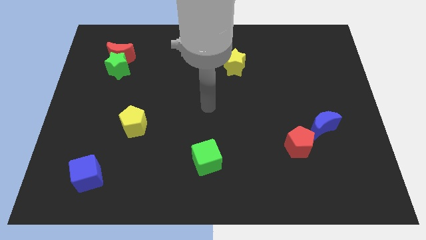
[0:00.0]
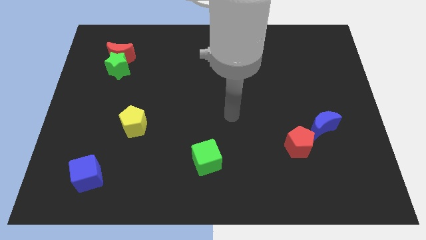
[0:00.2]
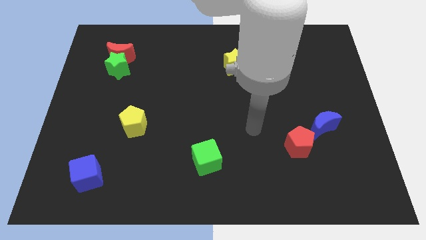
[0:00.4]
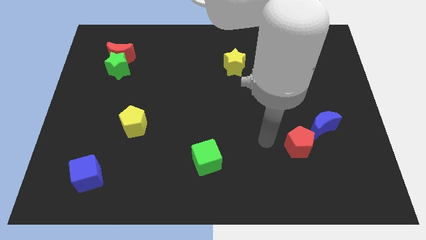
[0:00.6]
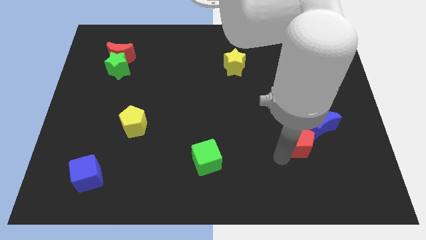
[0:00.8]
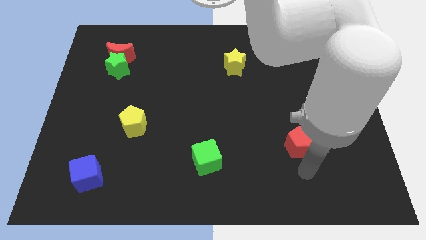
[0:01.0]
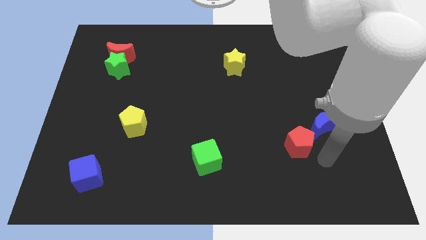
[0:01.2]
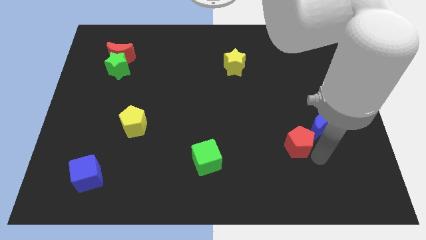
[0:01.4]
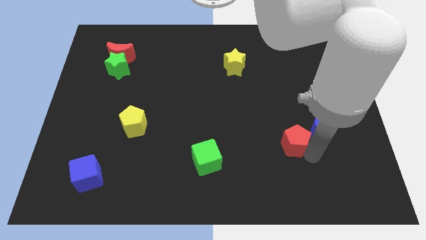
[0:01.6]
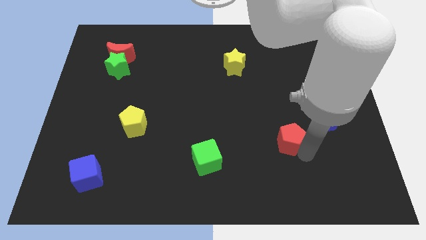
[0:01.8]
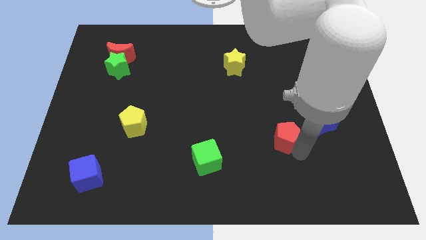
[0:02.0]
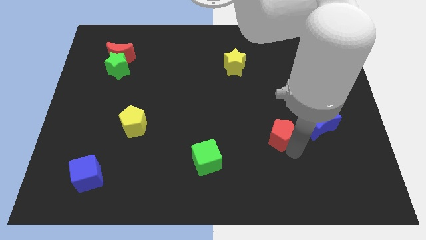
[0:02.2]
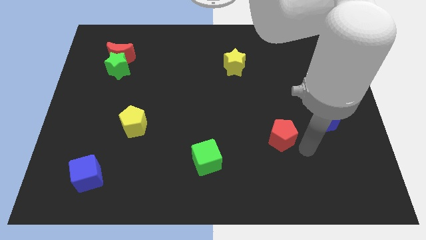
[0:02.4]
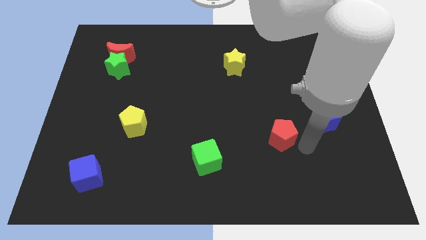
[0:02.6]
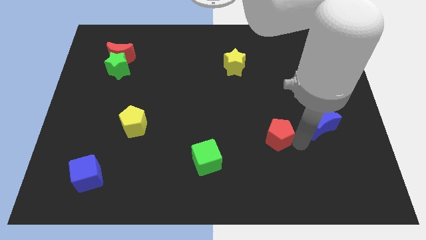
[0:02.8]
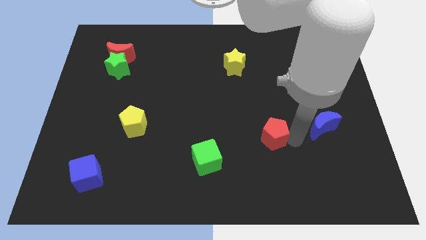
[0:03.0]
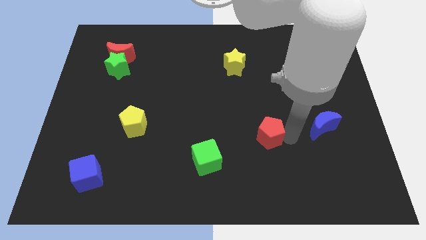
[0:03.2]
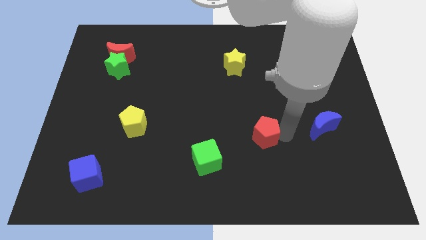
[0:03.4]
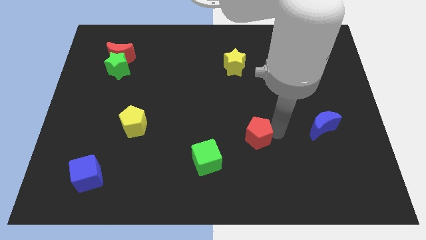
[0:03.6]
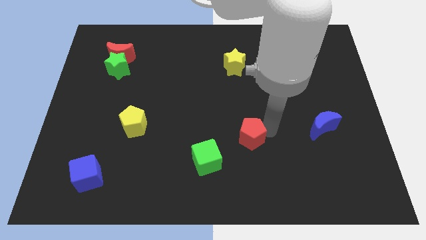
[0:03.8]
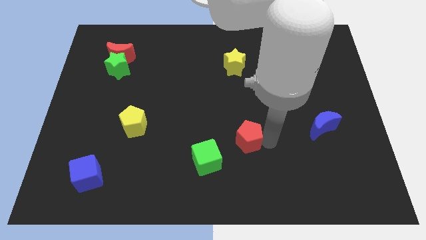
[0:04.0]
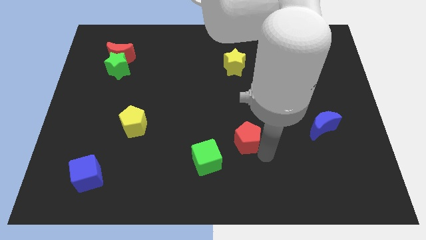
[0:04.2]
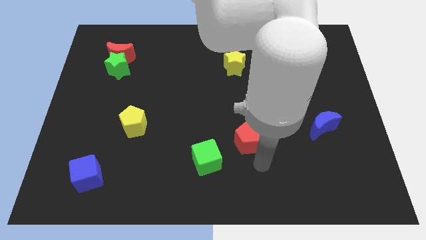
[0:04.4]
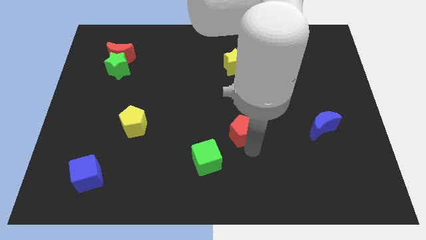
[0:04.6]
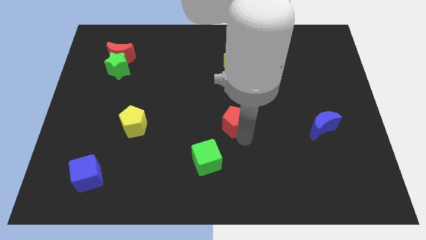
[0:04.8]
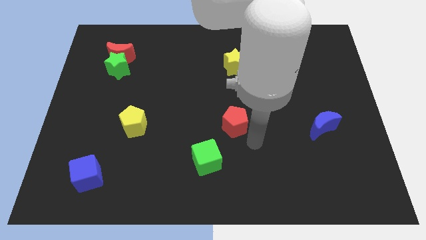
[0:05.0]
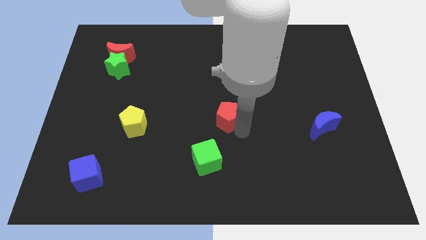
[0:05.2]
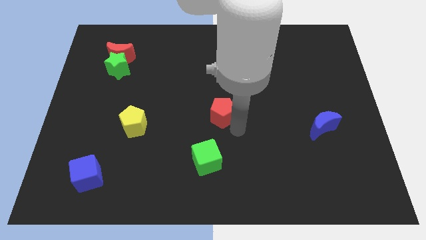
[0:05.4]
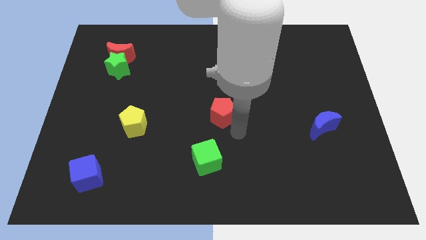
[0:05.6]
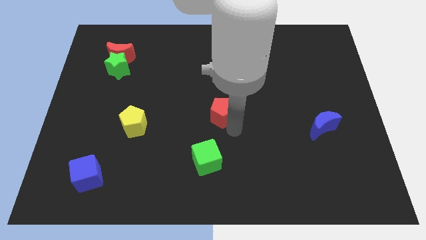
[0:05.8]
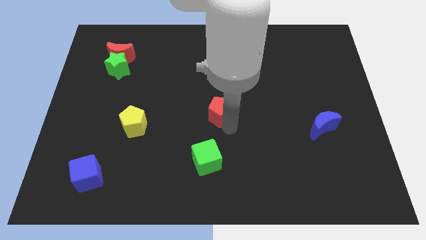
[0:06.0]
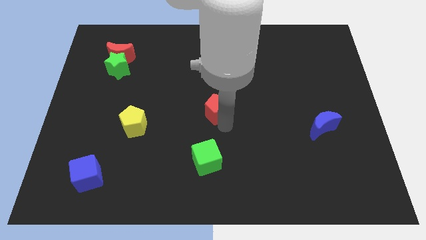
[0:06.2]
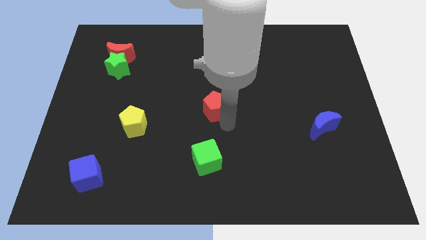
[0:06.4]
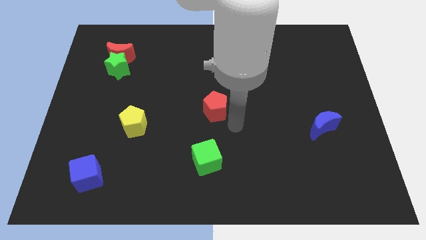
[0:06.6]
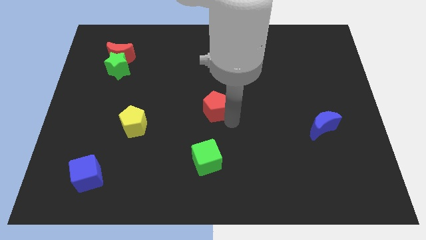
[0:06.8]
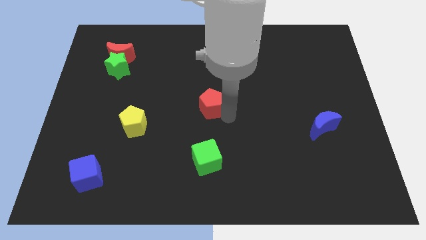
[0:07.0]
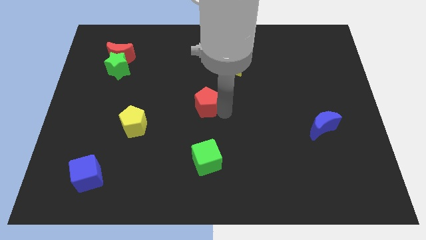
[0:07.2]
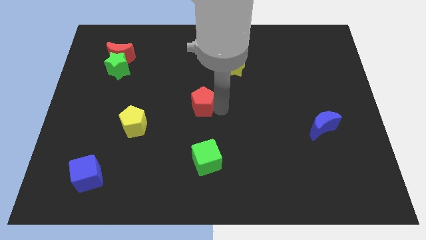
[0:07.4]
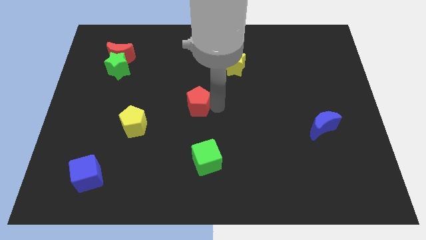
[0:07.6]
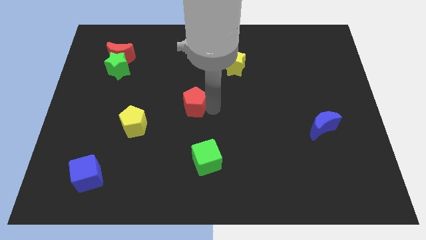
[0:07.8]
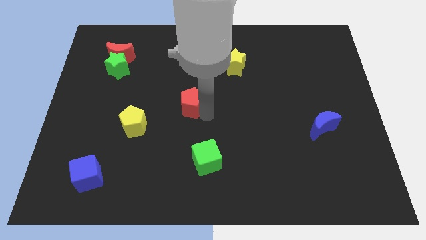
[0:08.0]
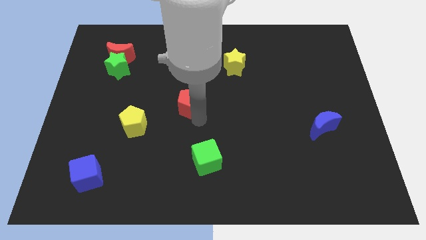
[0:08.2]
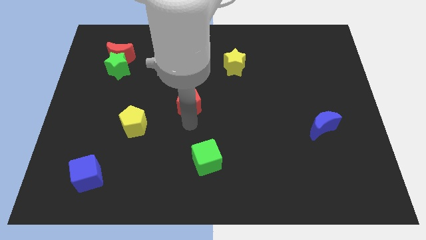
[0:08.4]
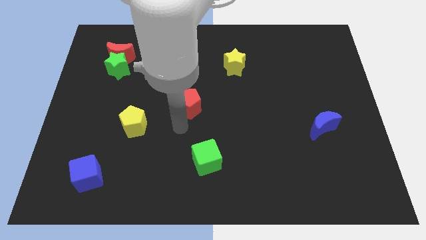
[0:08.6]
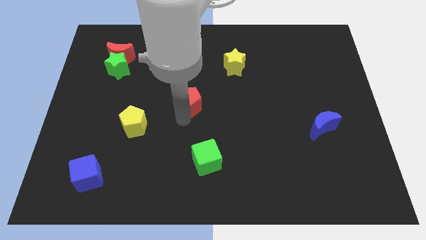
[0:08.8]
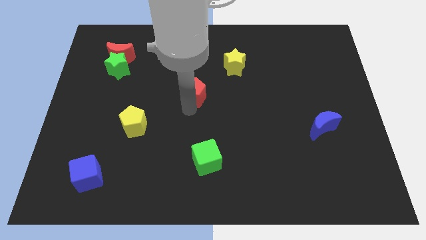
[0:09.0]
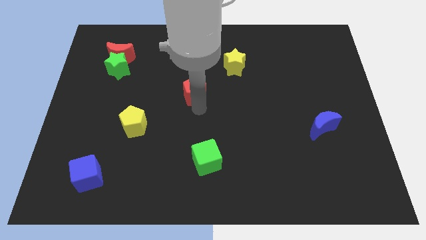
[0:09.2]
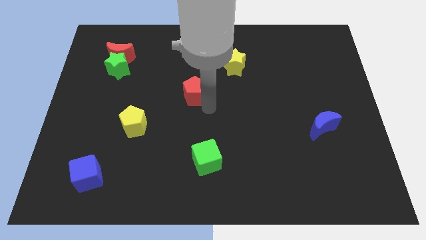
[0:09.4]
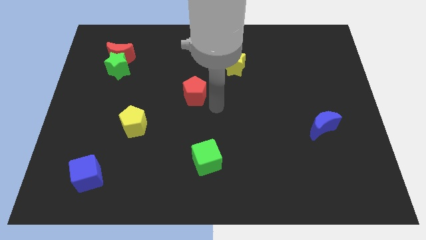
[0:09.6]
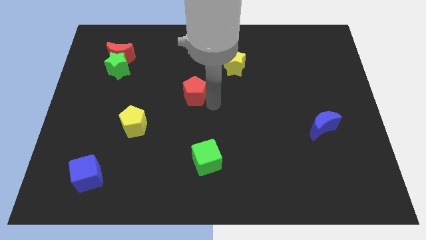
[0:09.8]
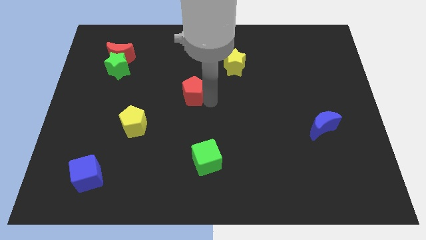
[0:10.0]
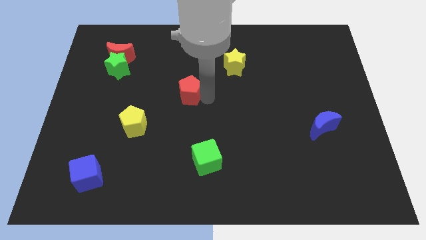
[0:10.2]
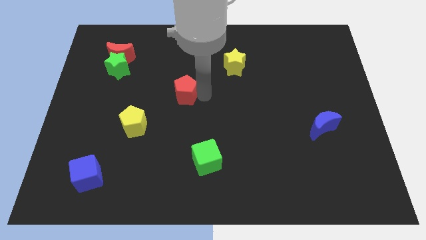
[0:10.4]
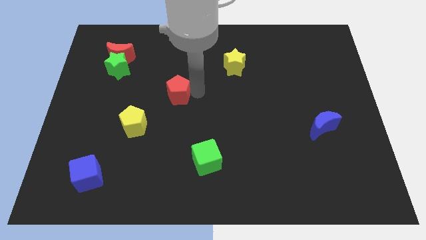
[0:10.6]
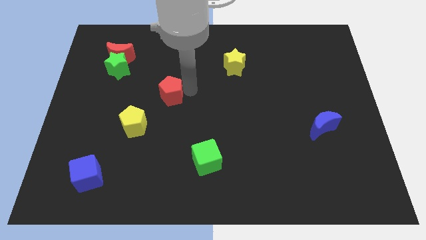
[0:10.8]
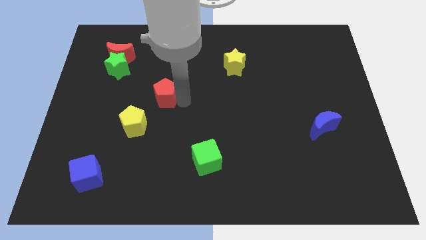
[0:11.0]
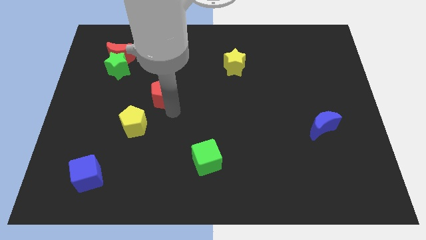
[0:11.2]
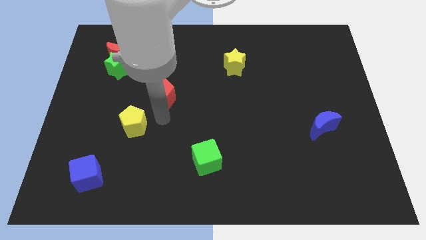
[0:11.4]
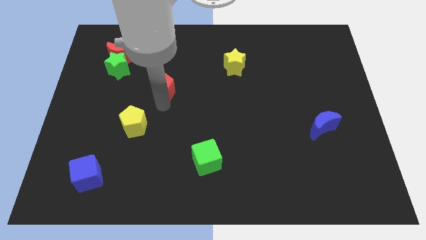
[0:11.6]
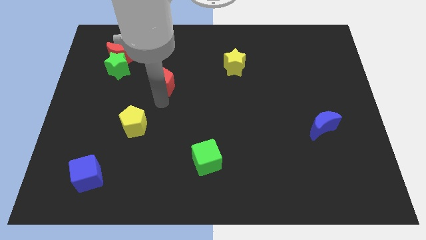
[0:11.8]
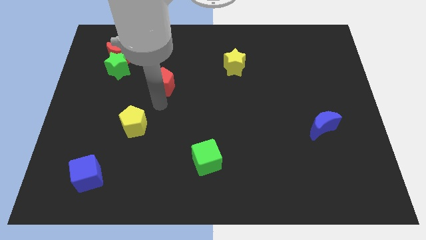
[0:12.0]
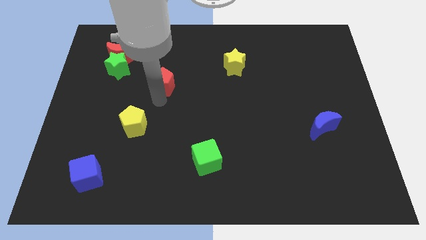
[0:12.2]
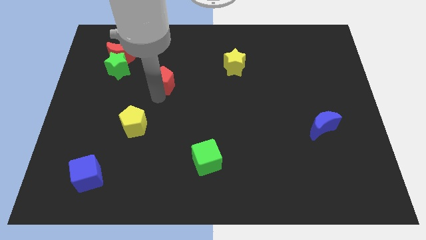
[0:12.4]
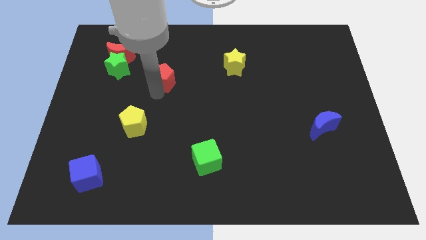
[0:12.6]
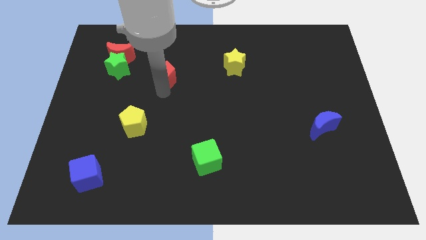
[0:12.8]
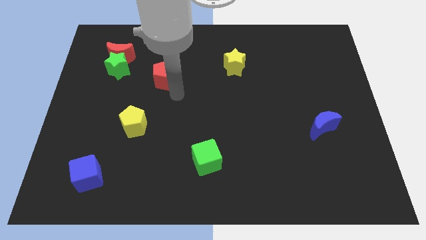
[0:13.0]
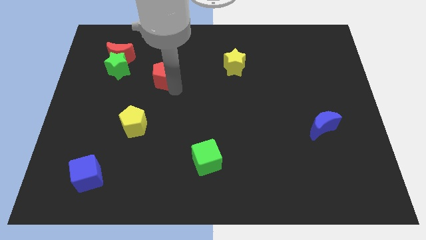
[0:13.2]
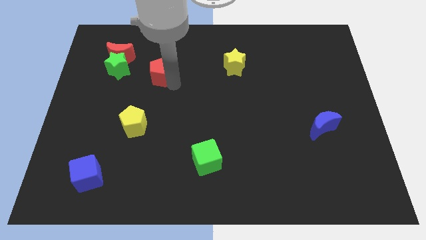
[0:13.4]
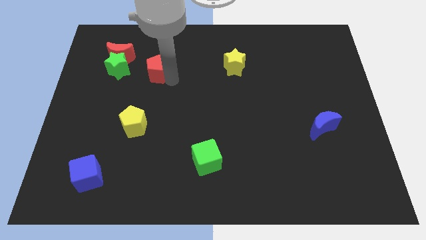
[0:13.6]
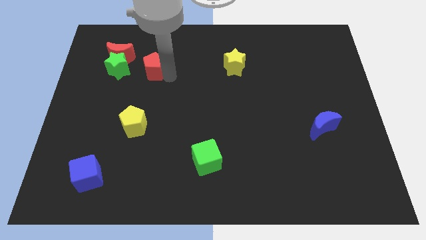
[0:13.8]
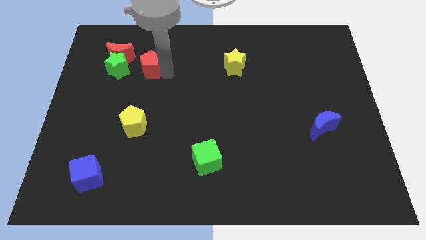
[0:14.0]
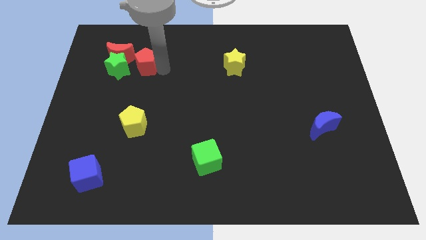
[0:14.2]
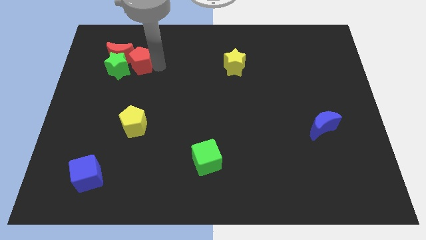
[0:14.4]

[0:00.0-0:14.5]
put the red pentagon to the red moon

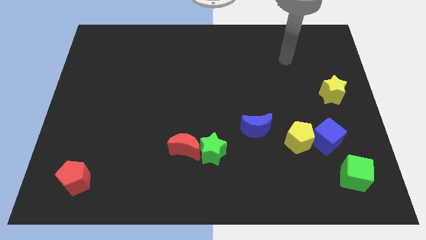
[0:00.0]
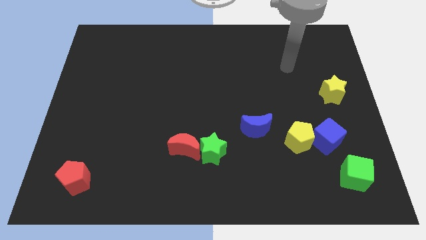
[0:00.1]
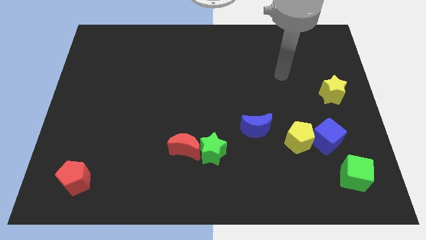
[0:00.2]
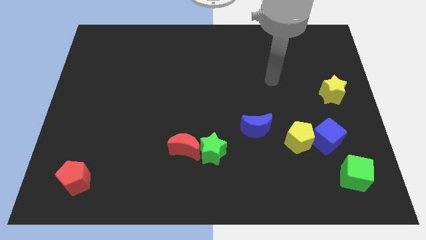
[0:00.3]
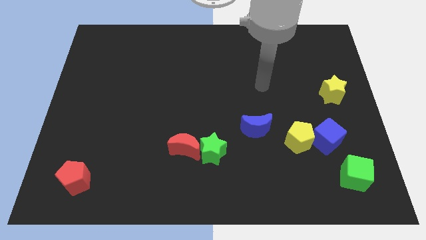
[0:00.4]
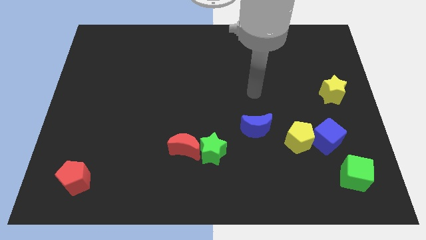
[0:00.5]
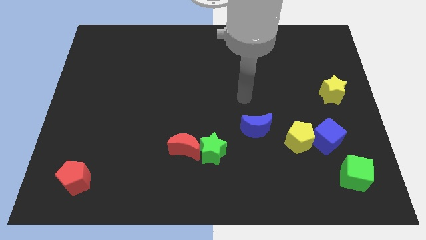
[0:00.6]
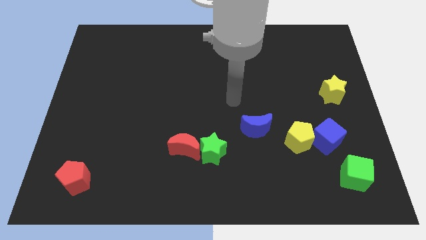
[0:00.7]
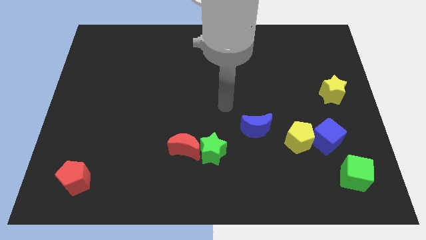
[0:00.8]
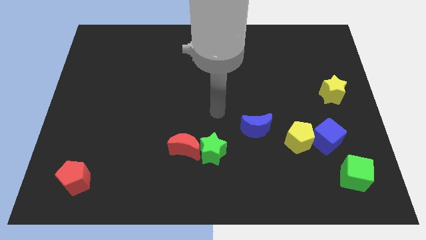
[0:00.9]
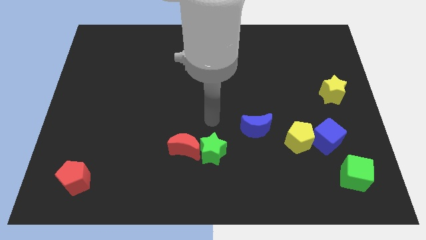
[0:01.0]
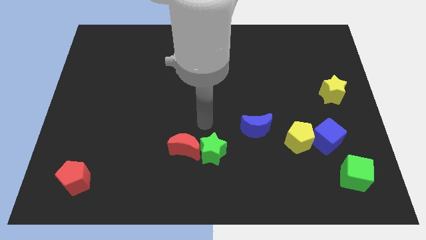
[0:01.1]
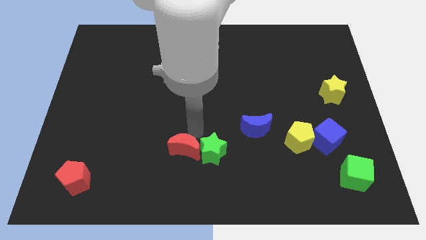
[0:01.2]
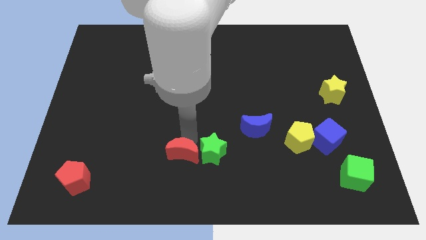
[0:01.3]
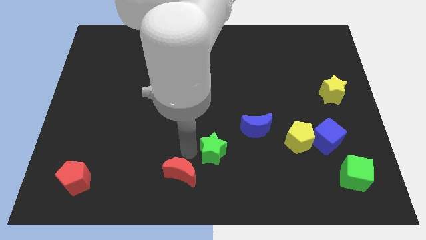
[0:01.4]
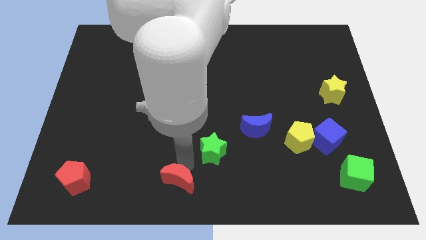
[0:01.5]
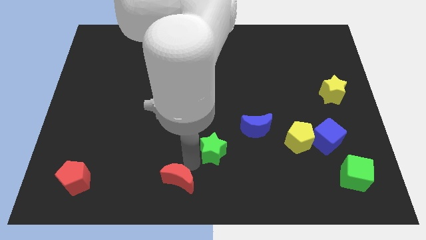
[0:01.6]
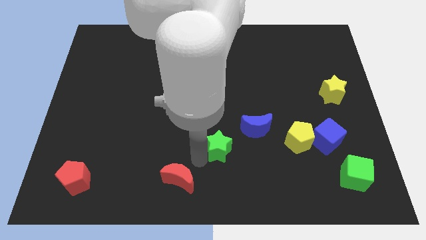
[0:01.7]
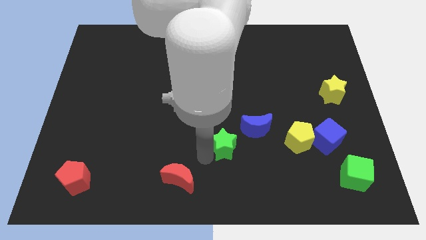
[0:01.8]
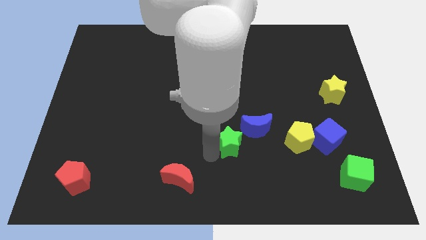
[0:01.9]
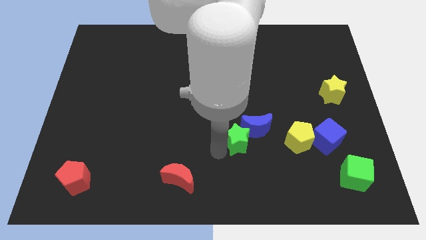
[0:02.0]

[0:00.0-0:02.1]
slide the green star to the blue moon
